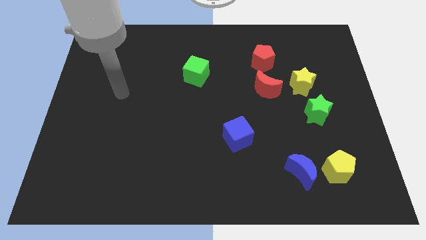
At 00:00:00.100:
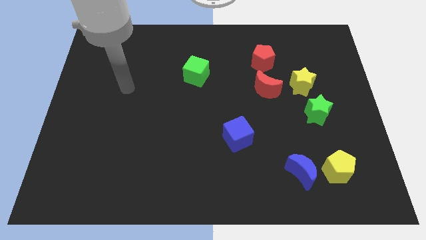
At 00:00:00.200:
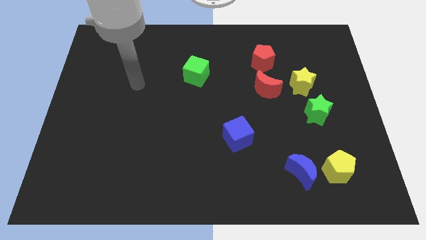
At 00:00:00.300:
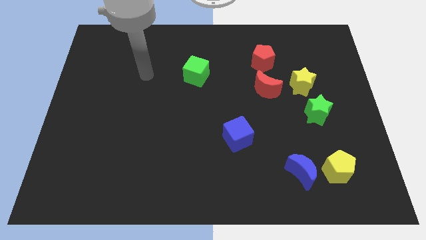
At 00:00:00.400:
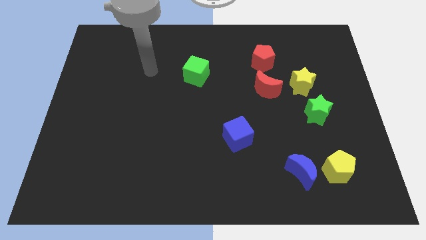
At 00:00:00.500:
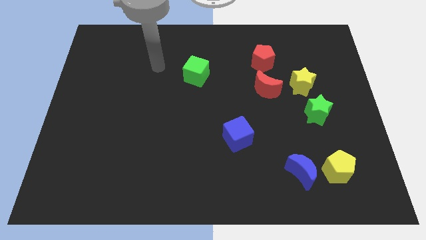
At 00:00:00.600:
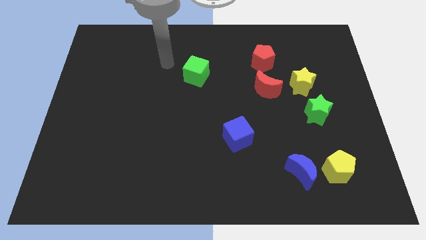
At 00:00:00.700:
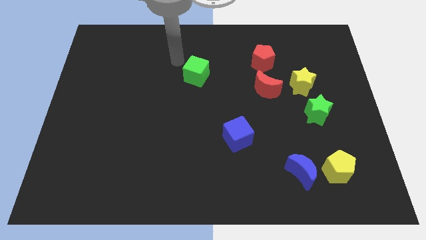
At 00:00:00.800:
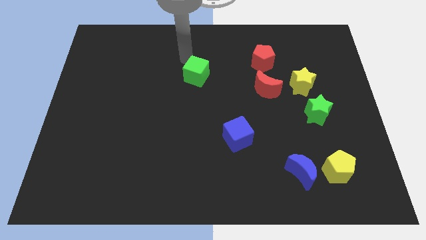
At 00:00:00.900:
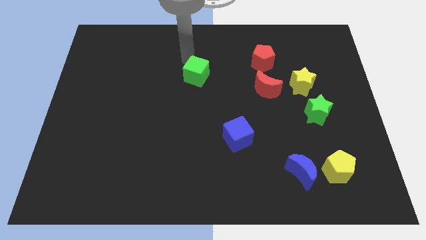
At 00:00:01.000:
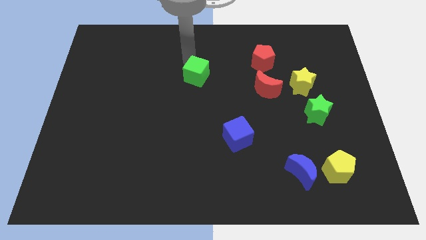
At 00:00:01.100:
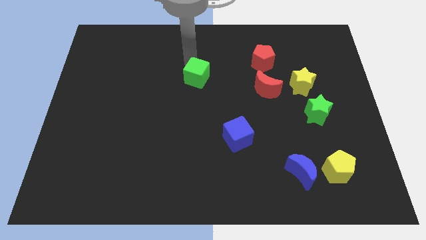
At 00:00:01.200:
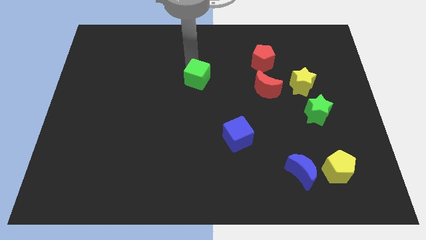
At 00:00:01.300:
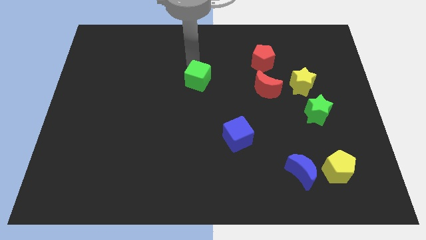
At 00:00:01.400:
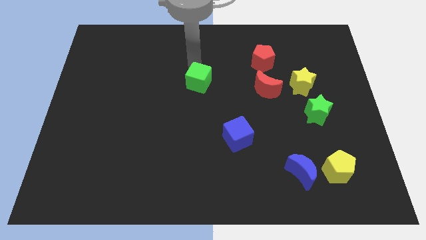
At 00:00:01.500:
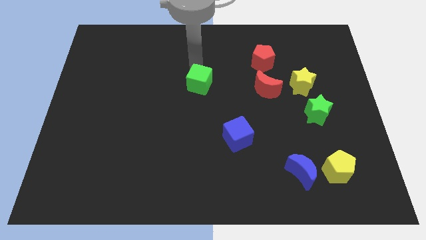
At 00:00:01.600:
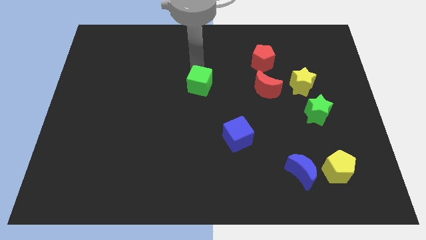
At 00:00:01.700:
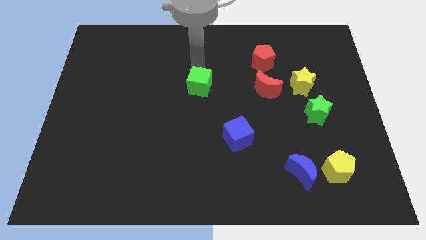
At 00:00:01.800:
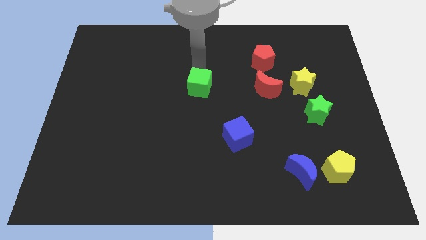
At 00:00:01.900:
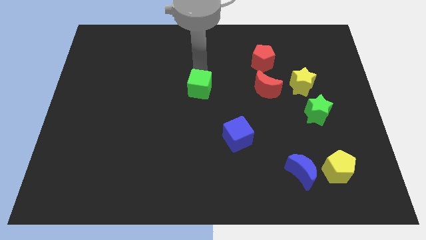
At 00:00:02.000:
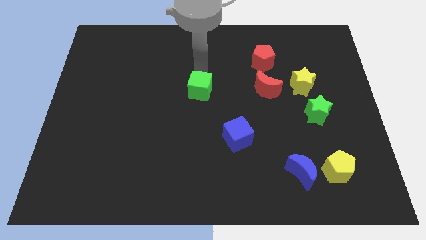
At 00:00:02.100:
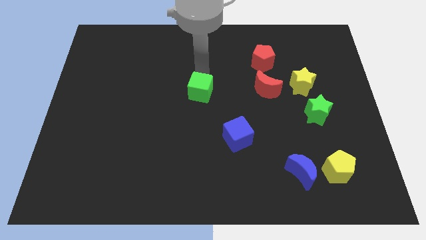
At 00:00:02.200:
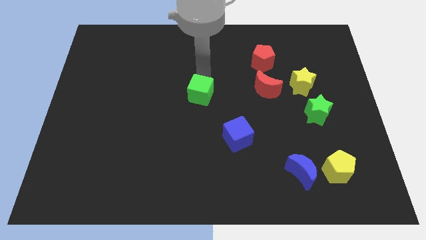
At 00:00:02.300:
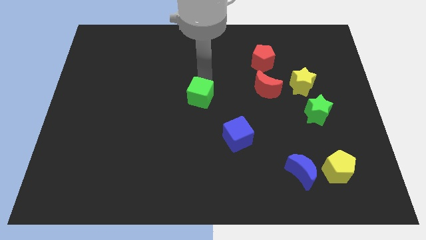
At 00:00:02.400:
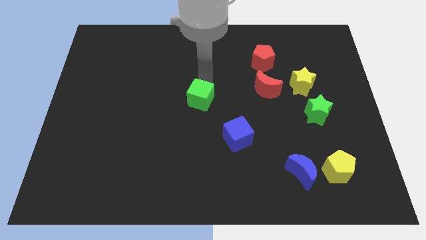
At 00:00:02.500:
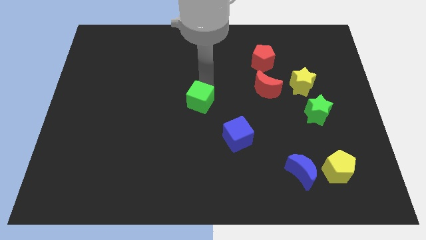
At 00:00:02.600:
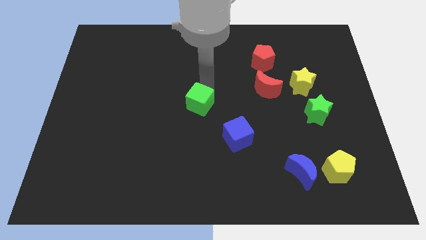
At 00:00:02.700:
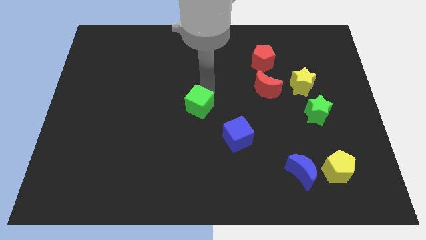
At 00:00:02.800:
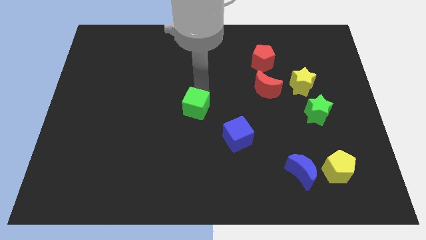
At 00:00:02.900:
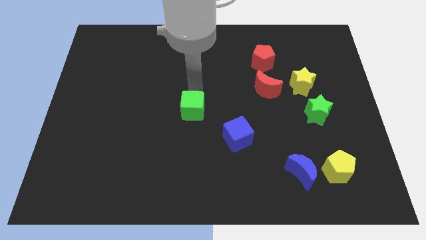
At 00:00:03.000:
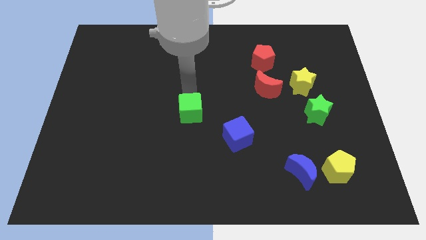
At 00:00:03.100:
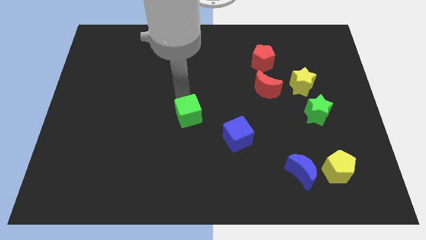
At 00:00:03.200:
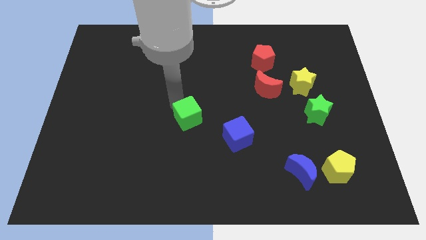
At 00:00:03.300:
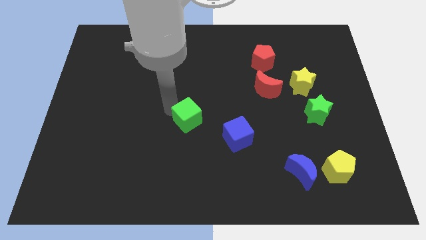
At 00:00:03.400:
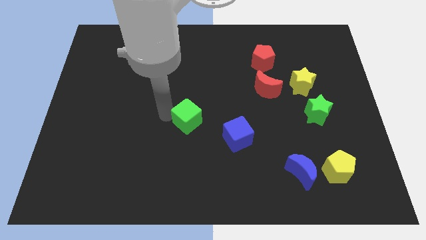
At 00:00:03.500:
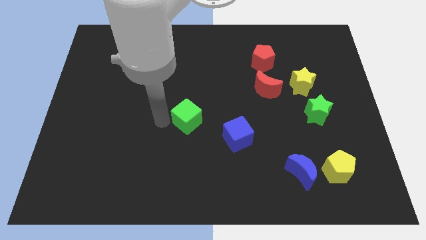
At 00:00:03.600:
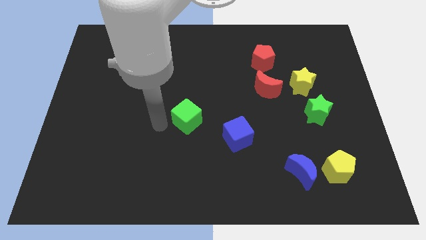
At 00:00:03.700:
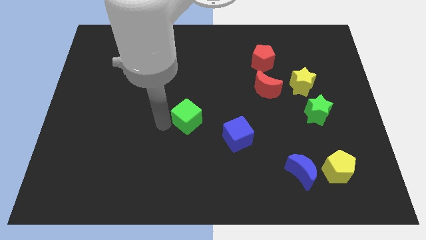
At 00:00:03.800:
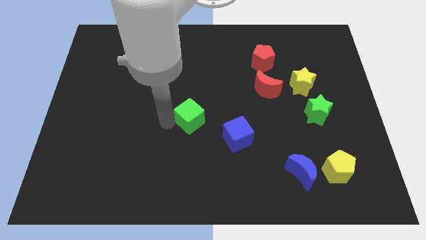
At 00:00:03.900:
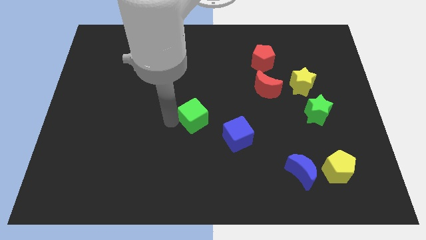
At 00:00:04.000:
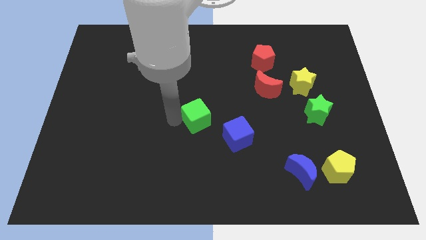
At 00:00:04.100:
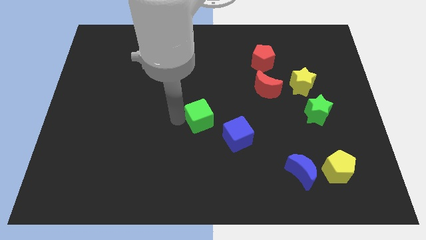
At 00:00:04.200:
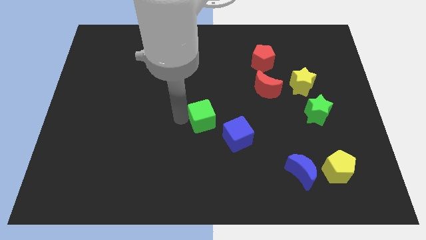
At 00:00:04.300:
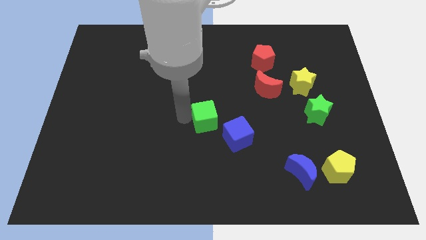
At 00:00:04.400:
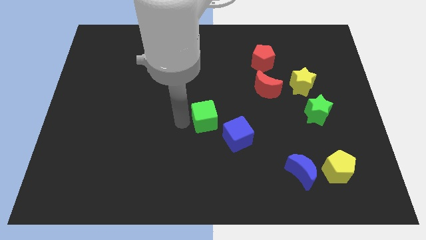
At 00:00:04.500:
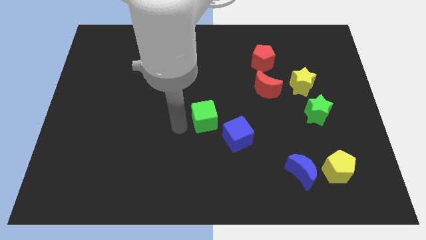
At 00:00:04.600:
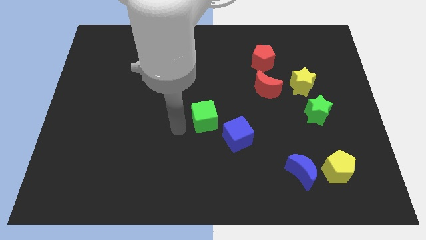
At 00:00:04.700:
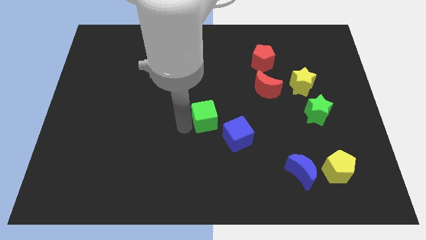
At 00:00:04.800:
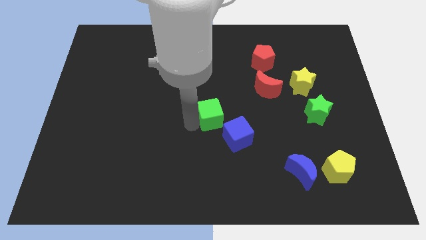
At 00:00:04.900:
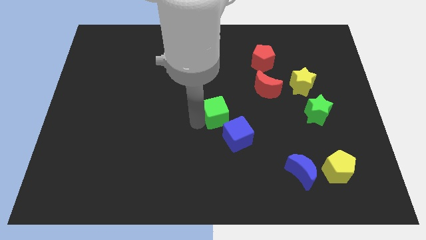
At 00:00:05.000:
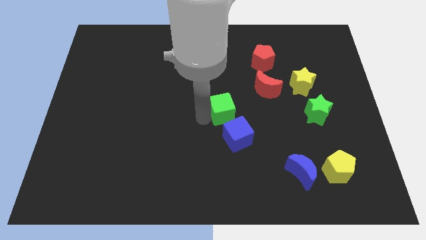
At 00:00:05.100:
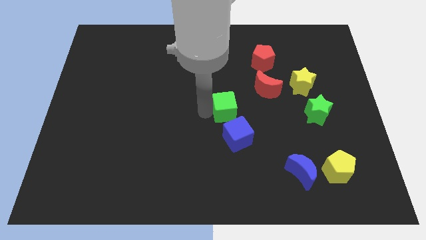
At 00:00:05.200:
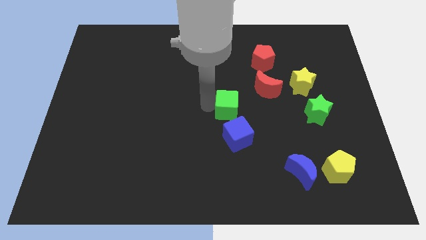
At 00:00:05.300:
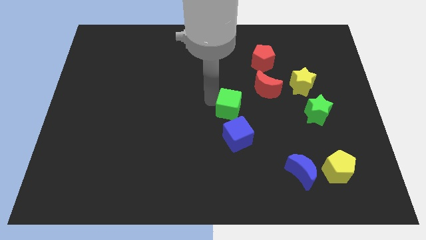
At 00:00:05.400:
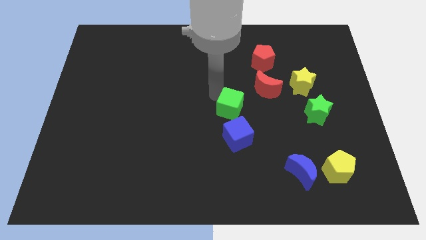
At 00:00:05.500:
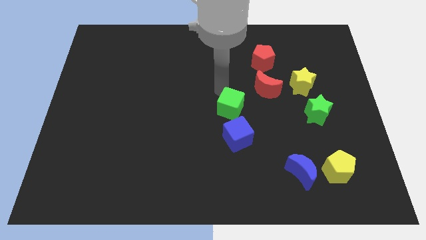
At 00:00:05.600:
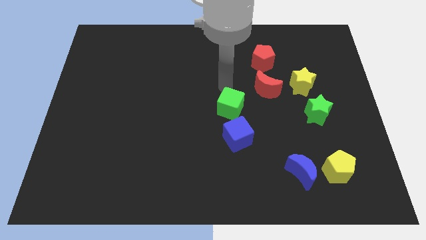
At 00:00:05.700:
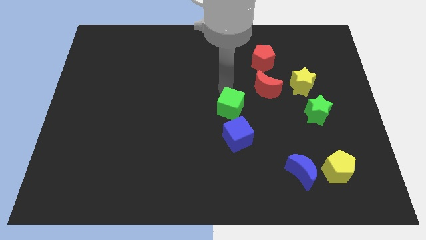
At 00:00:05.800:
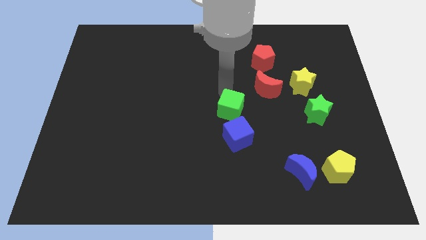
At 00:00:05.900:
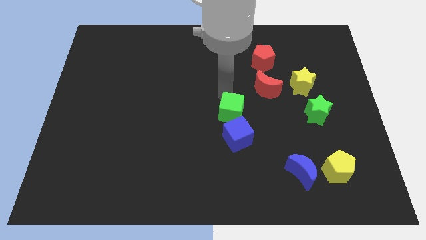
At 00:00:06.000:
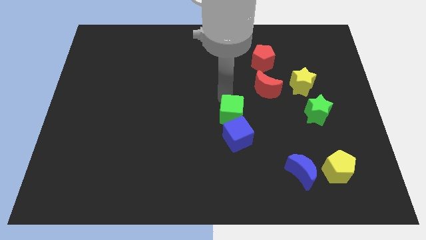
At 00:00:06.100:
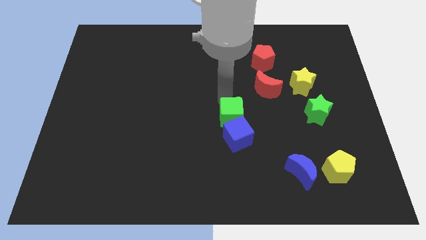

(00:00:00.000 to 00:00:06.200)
move the green cube to the blue cube

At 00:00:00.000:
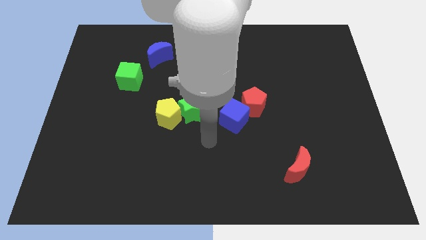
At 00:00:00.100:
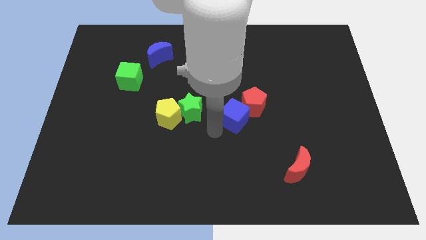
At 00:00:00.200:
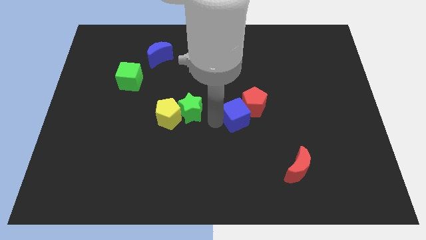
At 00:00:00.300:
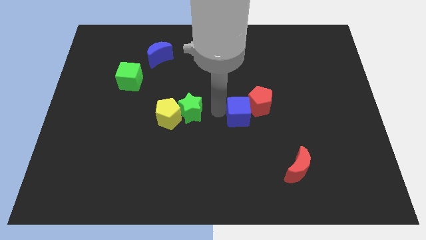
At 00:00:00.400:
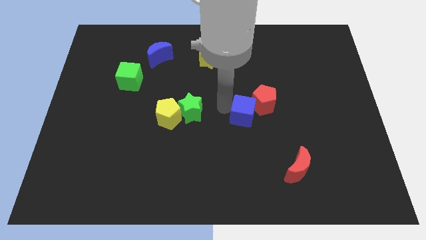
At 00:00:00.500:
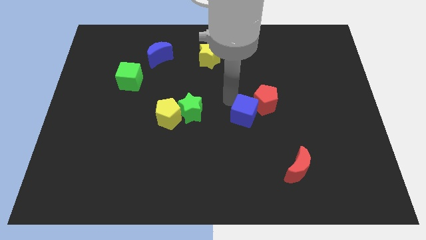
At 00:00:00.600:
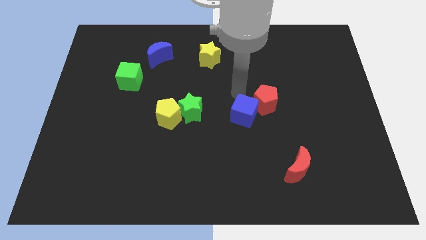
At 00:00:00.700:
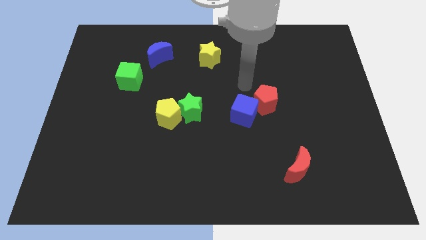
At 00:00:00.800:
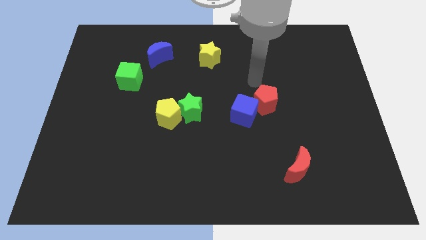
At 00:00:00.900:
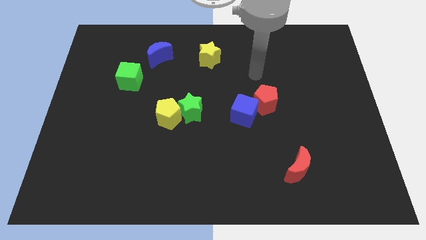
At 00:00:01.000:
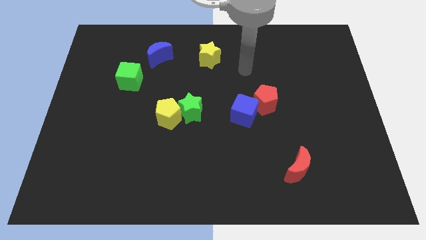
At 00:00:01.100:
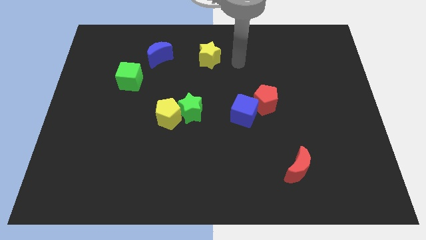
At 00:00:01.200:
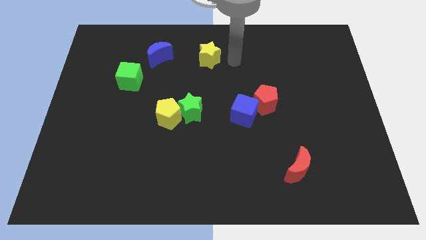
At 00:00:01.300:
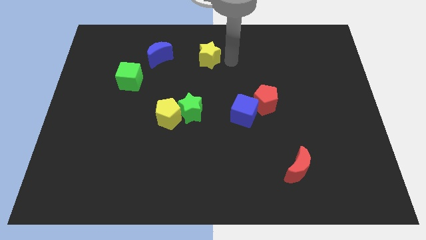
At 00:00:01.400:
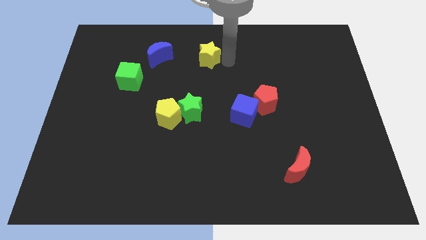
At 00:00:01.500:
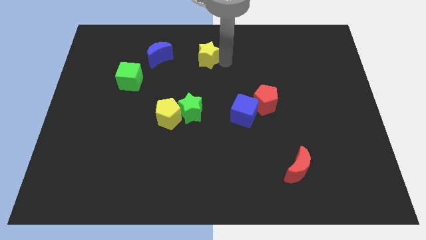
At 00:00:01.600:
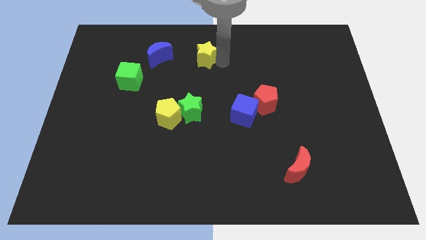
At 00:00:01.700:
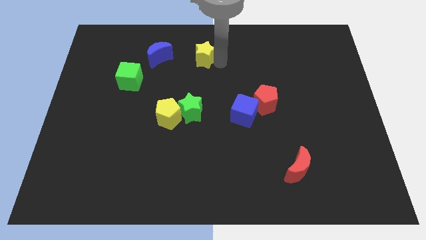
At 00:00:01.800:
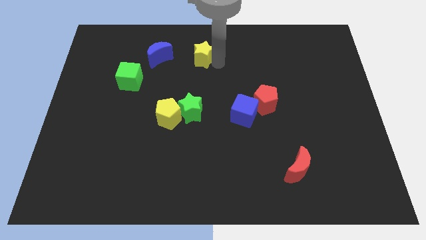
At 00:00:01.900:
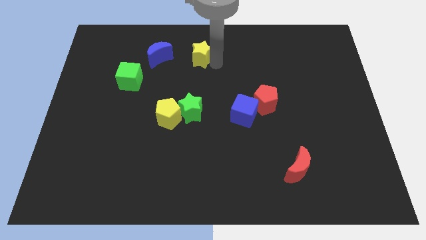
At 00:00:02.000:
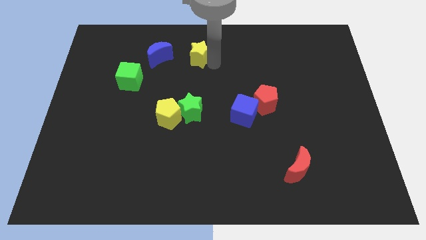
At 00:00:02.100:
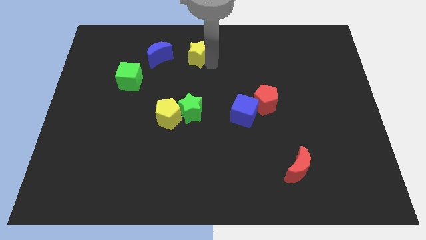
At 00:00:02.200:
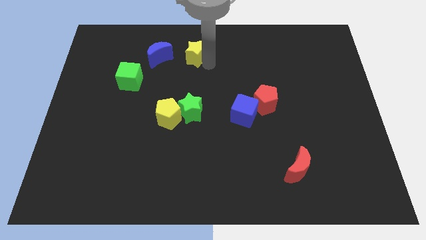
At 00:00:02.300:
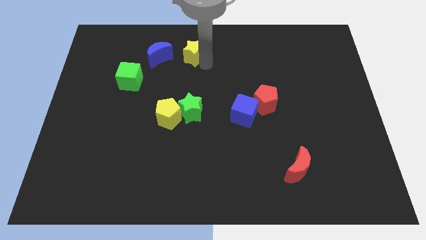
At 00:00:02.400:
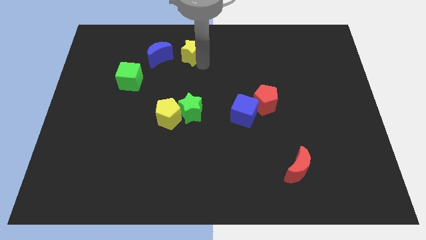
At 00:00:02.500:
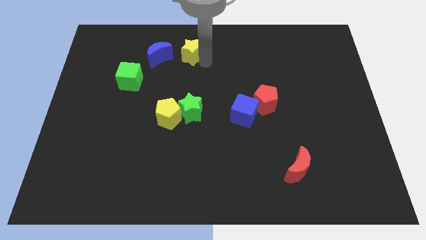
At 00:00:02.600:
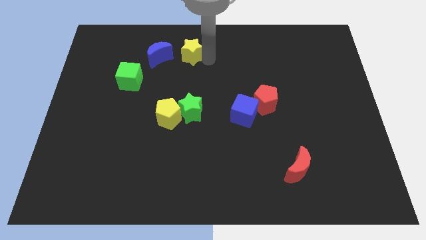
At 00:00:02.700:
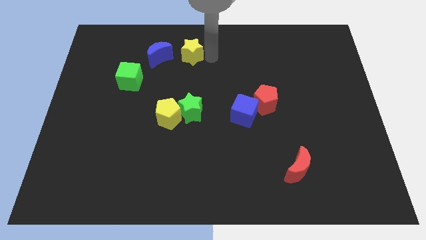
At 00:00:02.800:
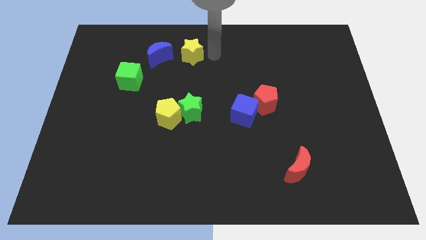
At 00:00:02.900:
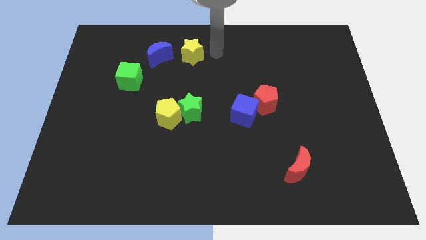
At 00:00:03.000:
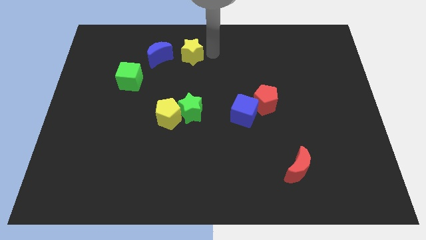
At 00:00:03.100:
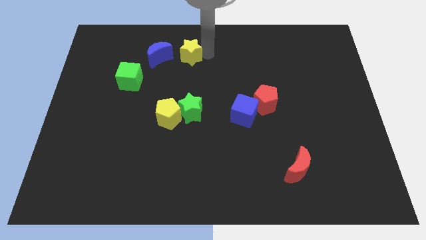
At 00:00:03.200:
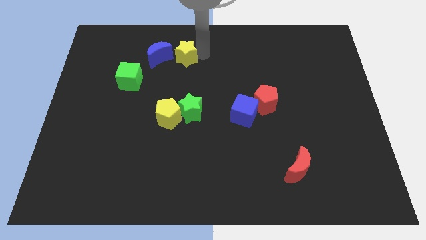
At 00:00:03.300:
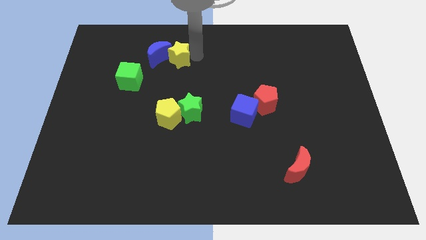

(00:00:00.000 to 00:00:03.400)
push the yellow star next to the blue moon
